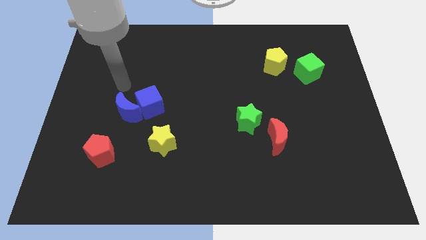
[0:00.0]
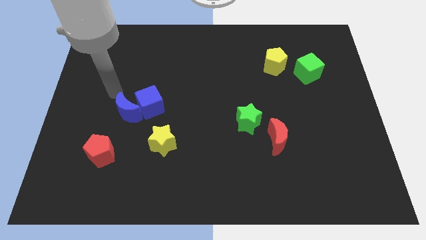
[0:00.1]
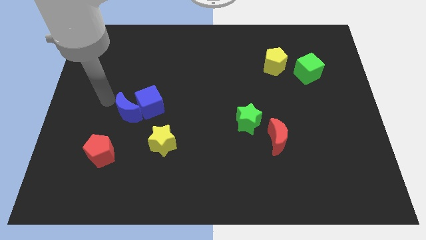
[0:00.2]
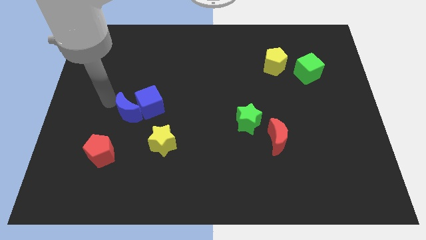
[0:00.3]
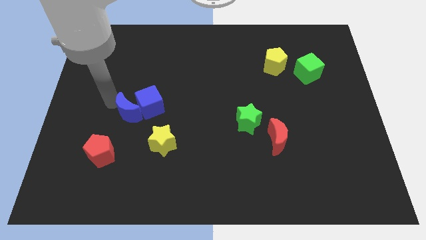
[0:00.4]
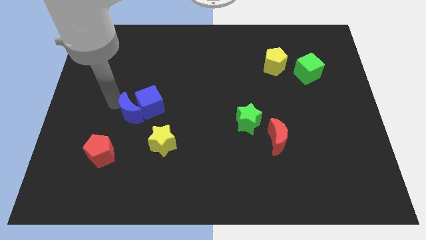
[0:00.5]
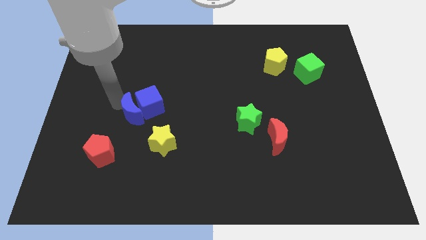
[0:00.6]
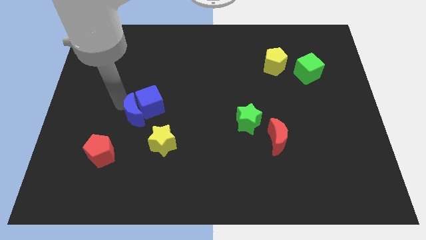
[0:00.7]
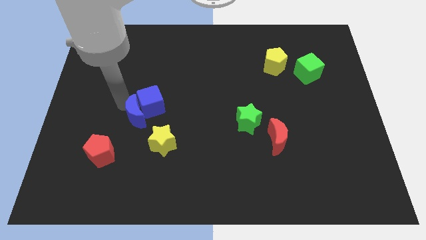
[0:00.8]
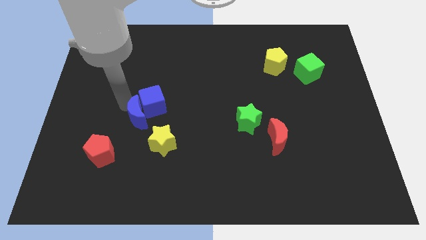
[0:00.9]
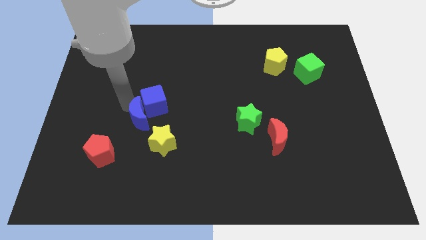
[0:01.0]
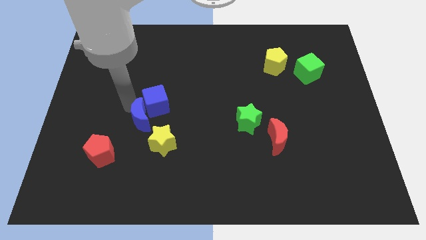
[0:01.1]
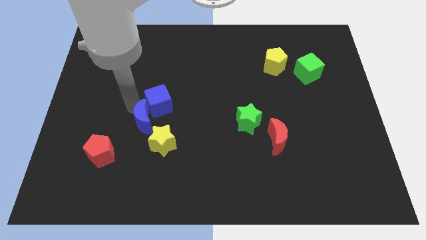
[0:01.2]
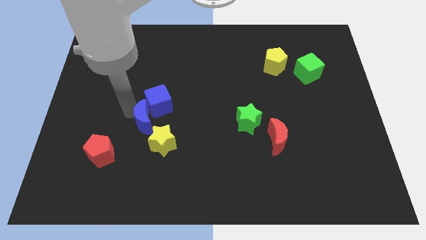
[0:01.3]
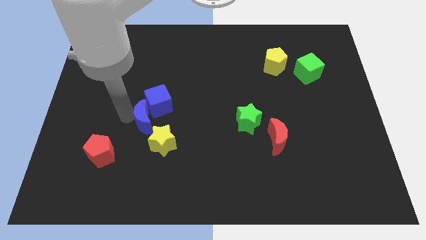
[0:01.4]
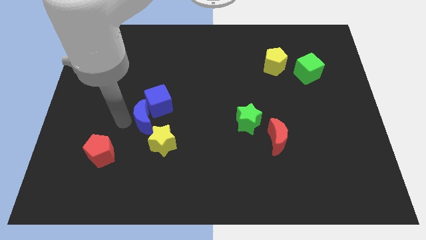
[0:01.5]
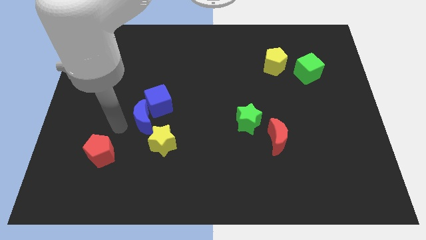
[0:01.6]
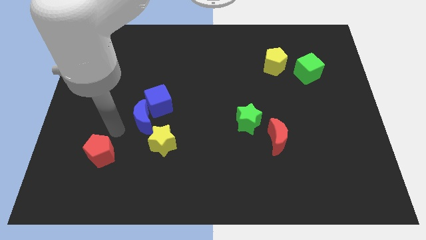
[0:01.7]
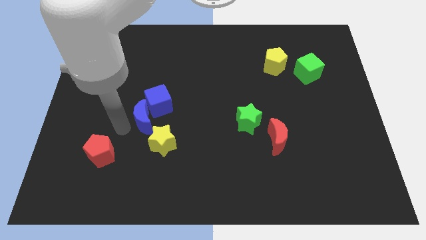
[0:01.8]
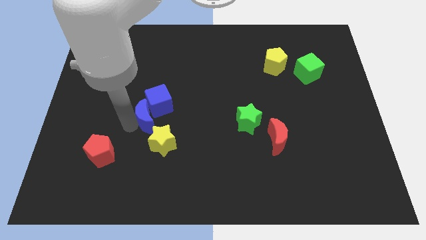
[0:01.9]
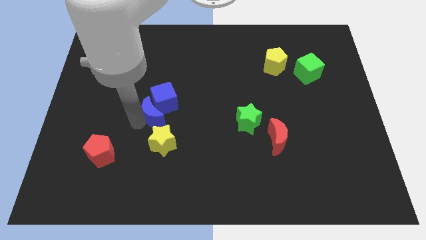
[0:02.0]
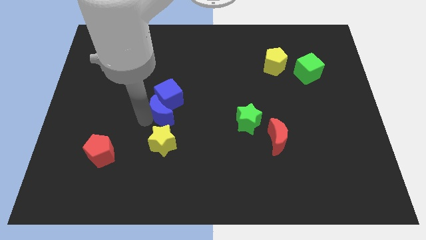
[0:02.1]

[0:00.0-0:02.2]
slightly slide the blue moon right

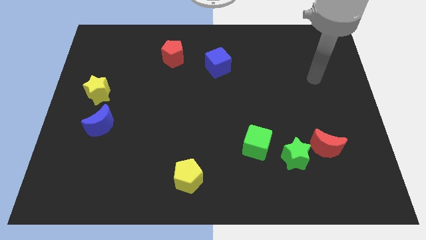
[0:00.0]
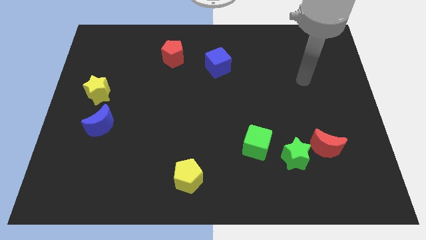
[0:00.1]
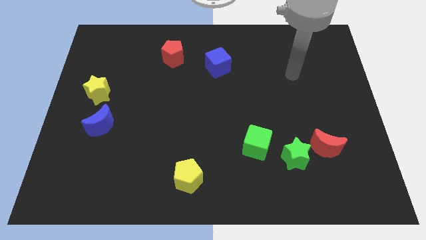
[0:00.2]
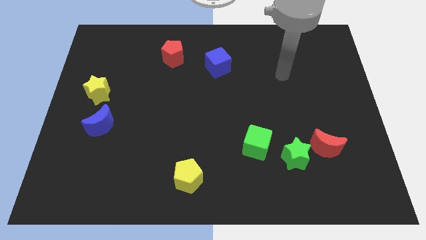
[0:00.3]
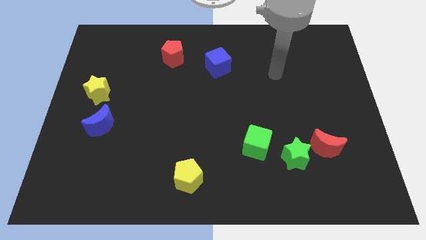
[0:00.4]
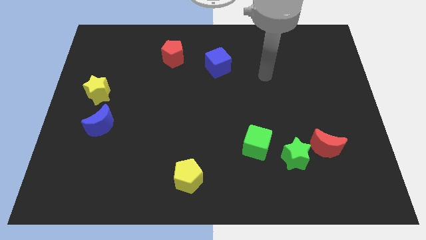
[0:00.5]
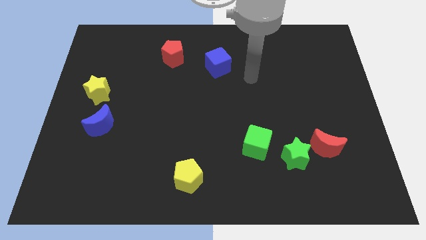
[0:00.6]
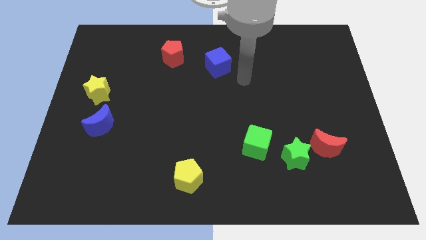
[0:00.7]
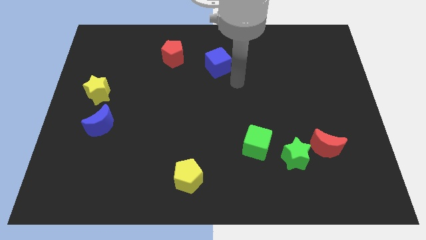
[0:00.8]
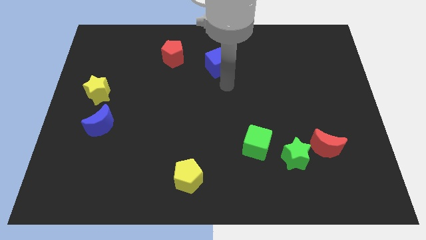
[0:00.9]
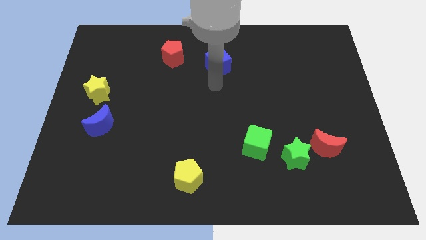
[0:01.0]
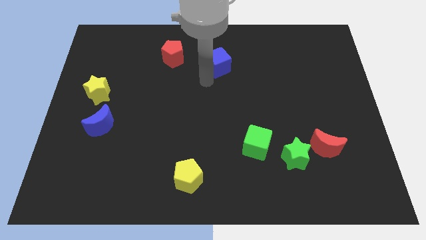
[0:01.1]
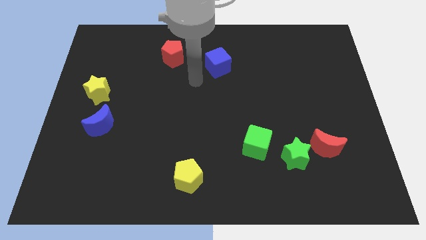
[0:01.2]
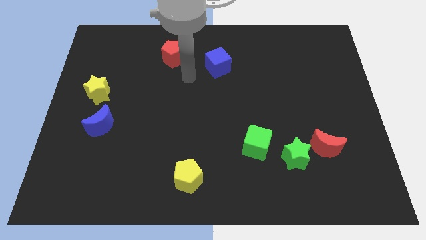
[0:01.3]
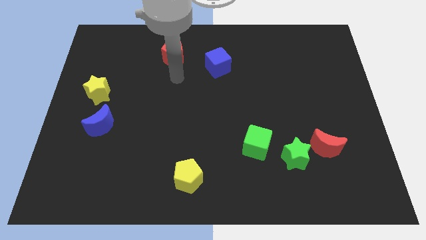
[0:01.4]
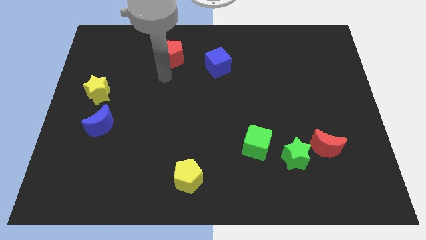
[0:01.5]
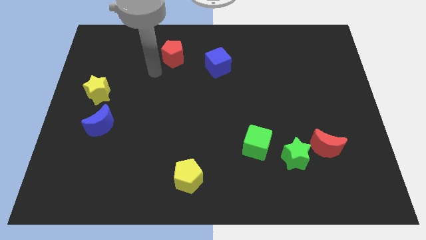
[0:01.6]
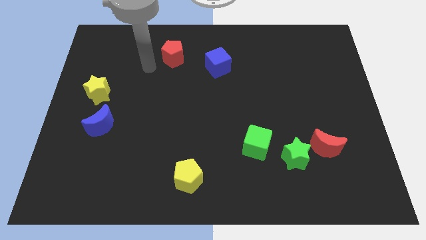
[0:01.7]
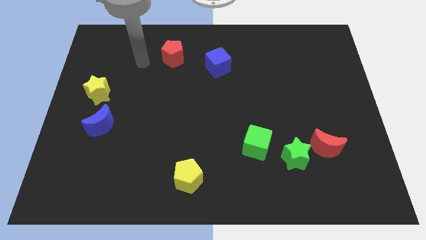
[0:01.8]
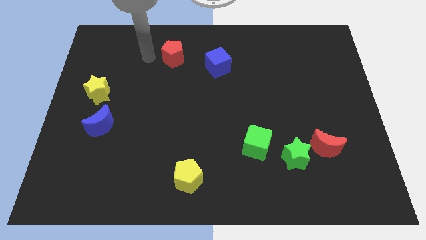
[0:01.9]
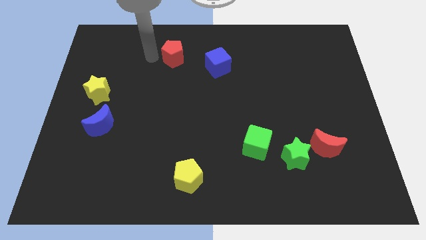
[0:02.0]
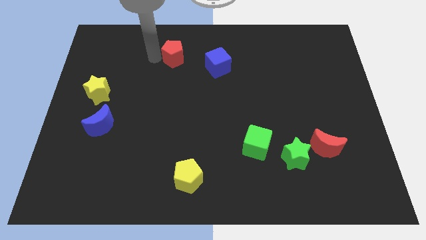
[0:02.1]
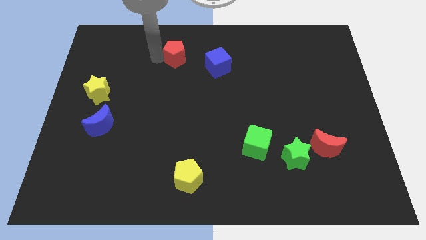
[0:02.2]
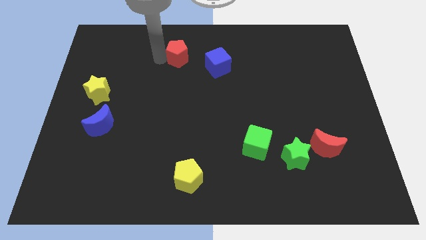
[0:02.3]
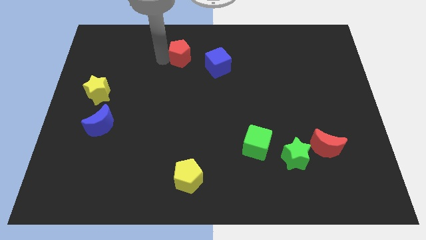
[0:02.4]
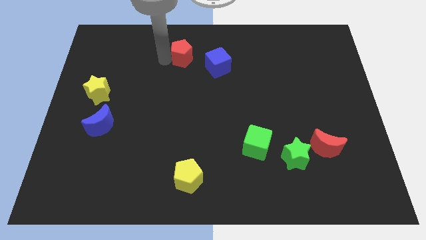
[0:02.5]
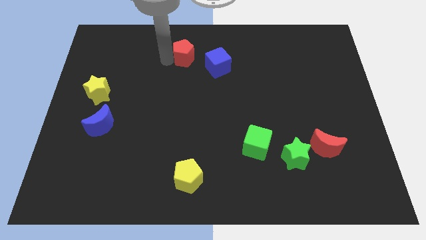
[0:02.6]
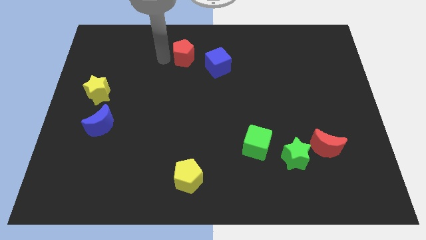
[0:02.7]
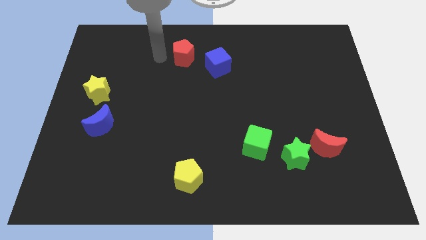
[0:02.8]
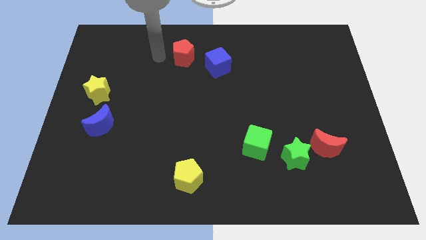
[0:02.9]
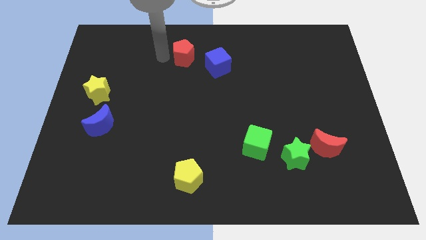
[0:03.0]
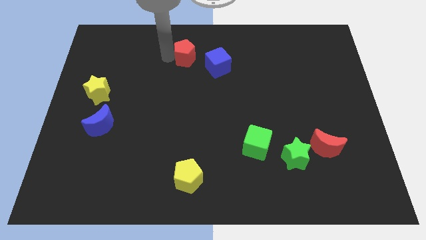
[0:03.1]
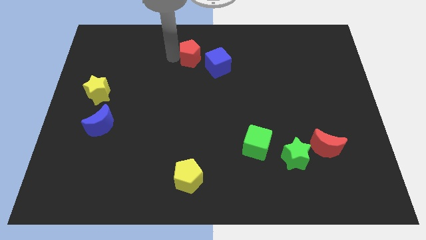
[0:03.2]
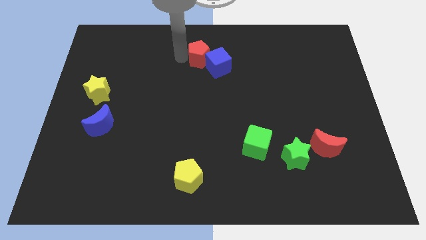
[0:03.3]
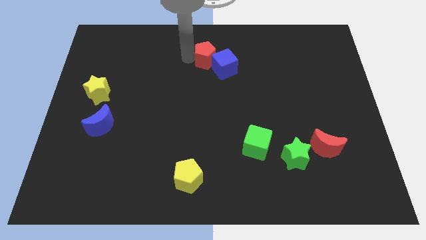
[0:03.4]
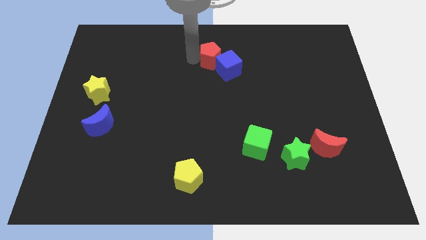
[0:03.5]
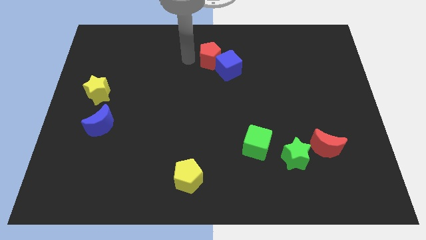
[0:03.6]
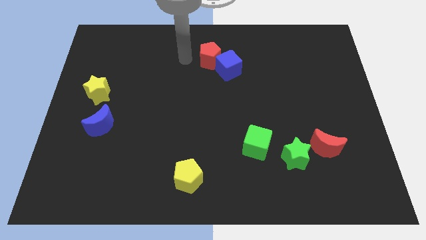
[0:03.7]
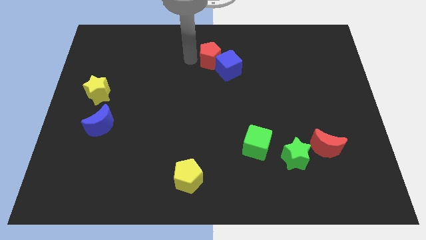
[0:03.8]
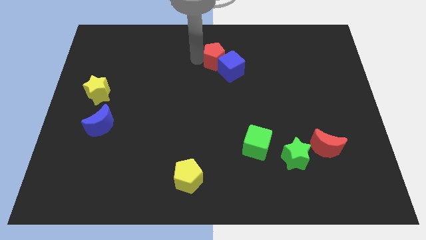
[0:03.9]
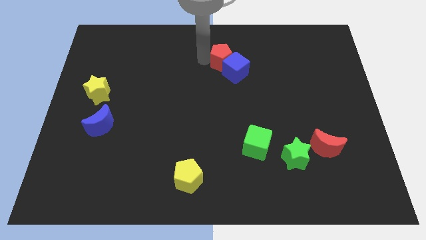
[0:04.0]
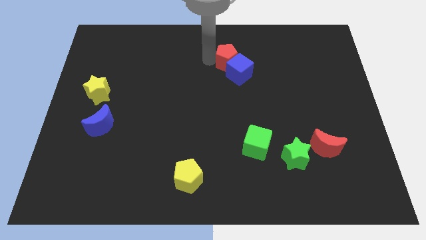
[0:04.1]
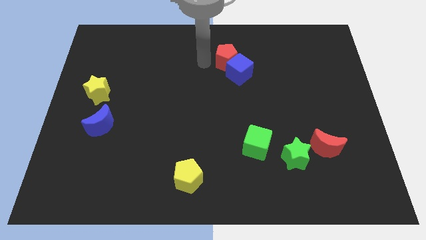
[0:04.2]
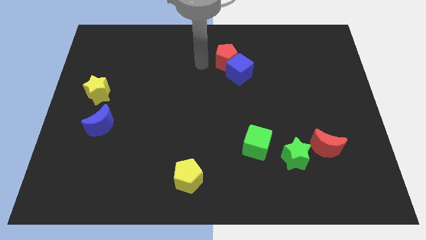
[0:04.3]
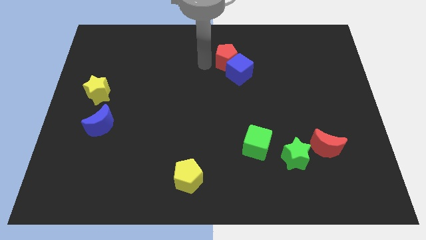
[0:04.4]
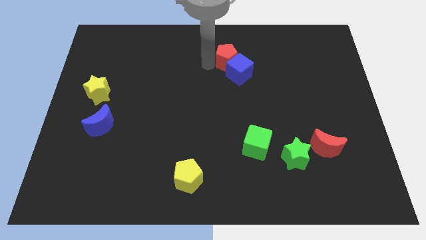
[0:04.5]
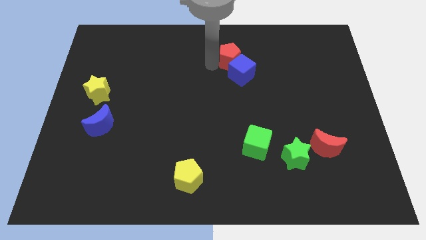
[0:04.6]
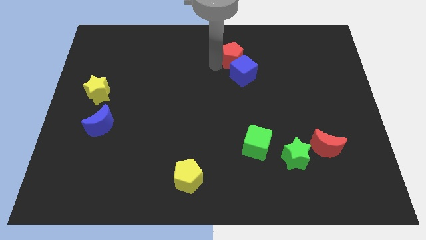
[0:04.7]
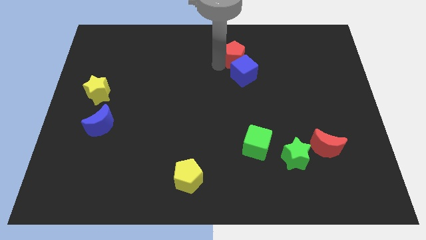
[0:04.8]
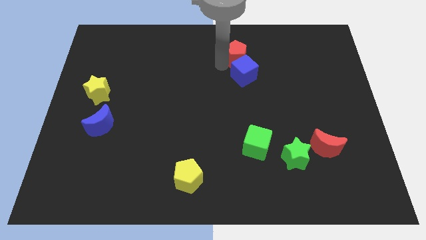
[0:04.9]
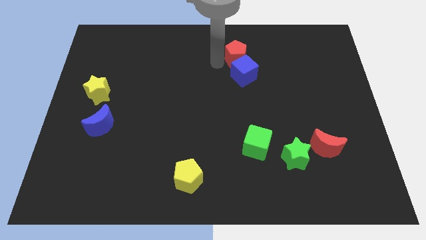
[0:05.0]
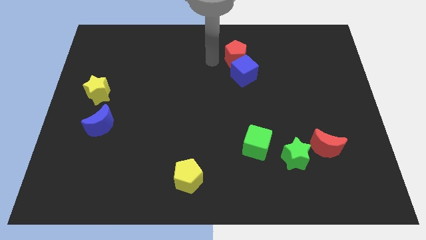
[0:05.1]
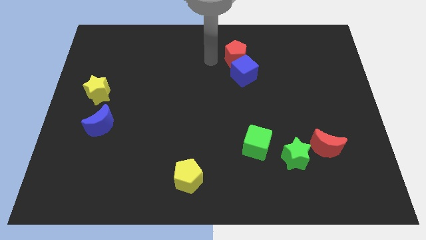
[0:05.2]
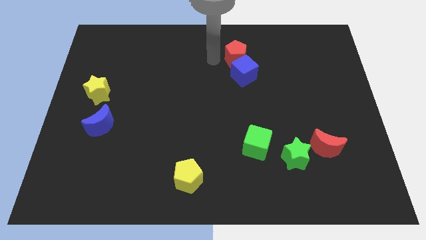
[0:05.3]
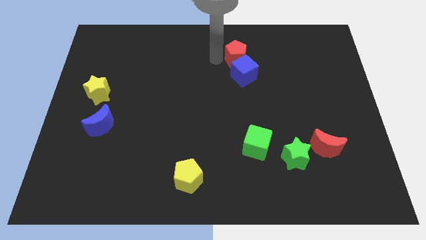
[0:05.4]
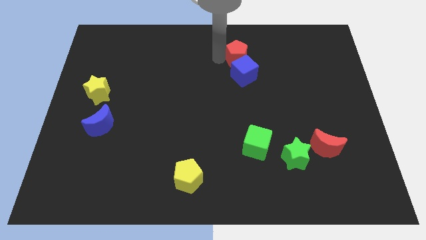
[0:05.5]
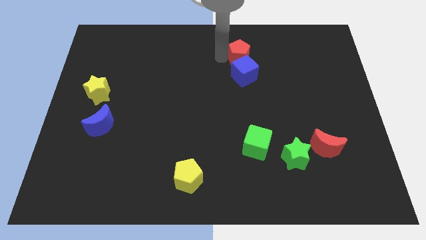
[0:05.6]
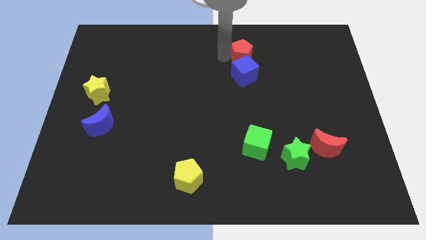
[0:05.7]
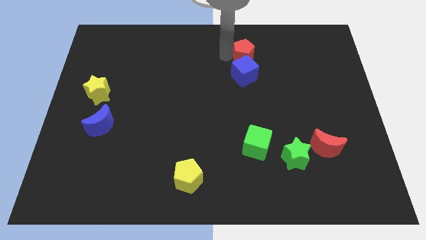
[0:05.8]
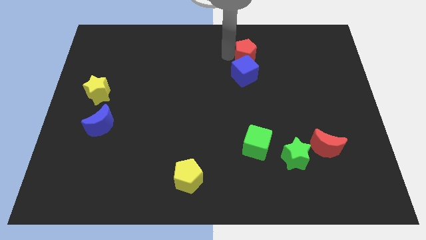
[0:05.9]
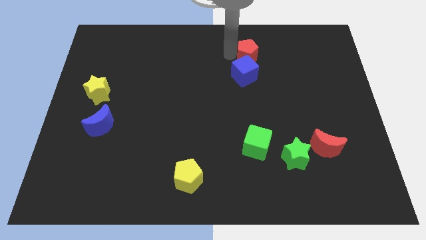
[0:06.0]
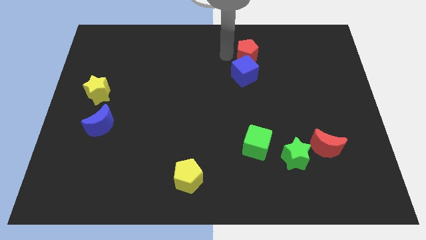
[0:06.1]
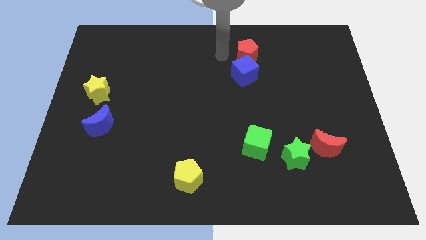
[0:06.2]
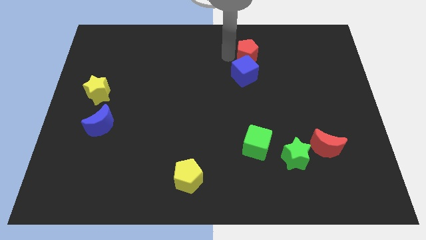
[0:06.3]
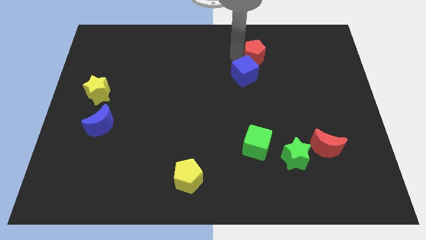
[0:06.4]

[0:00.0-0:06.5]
move the red pentagon to the right
